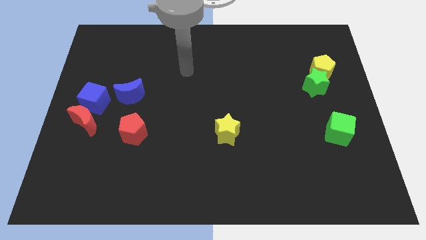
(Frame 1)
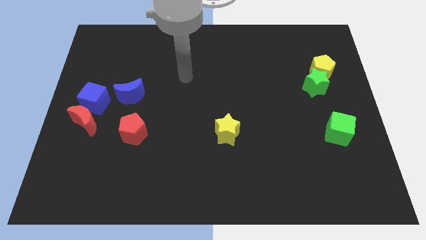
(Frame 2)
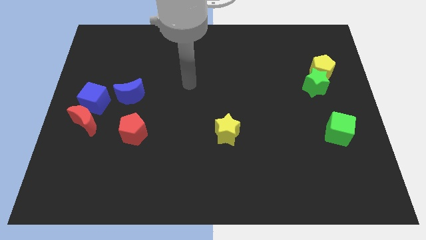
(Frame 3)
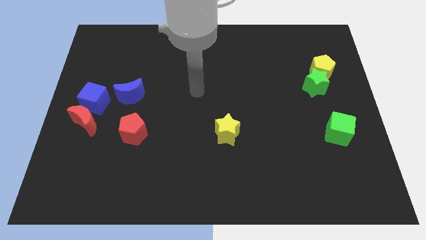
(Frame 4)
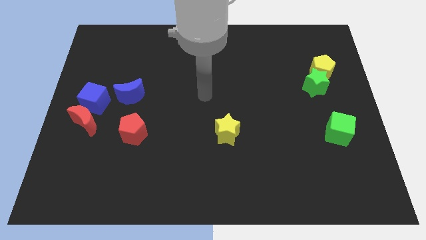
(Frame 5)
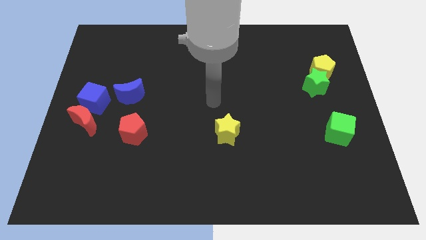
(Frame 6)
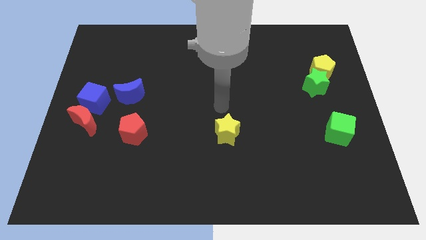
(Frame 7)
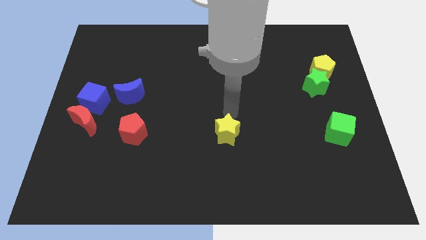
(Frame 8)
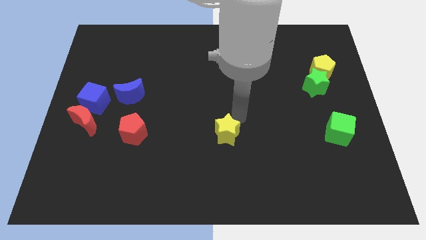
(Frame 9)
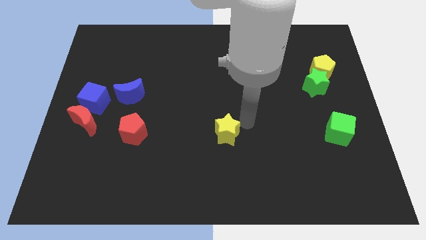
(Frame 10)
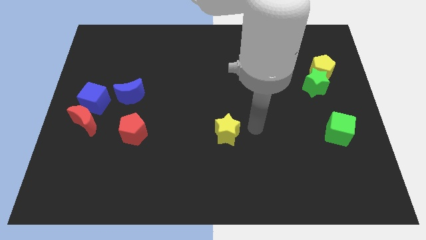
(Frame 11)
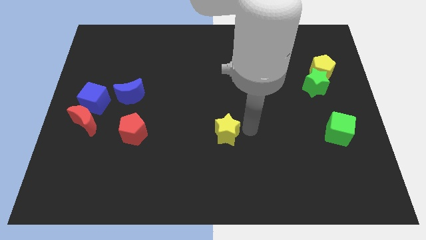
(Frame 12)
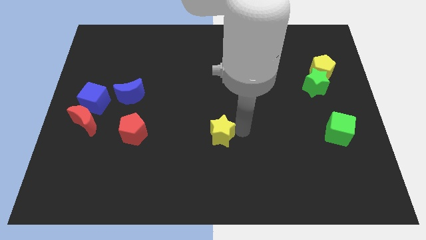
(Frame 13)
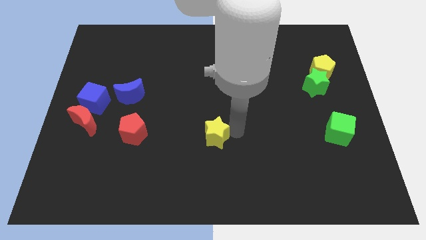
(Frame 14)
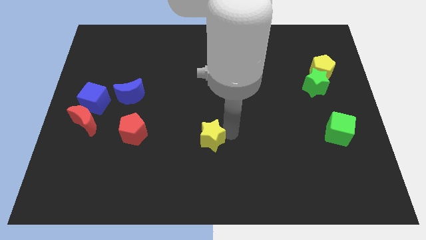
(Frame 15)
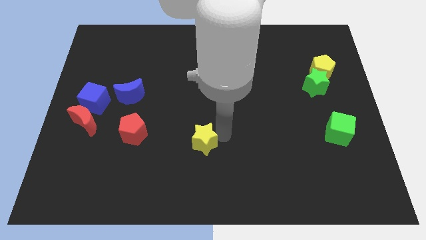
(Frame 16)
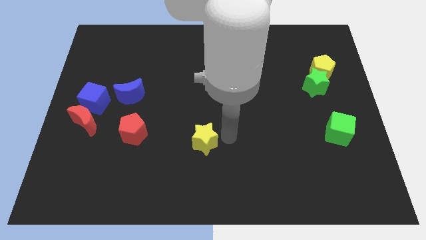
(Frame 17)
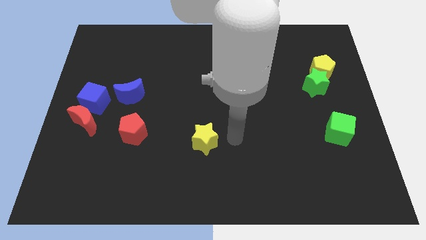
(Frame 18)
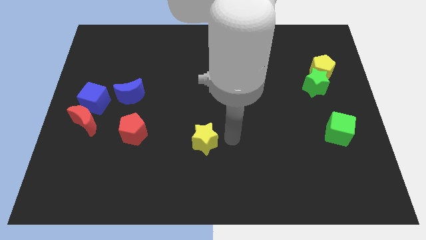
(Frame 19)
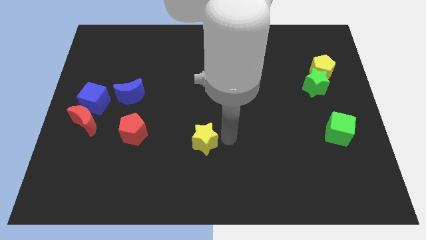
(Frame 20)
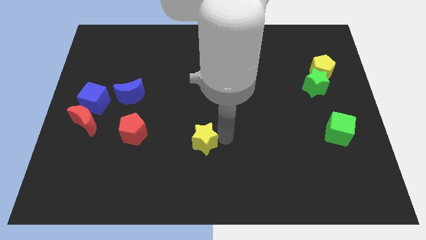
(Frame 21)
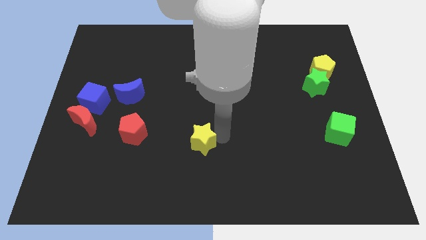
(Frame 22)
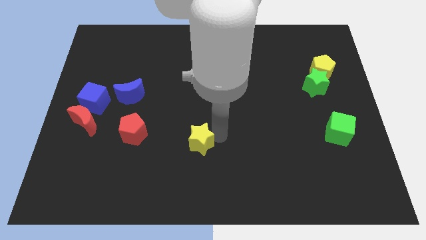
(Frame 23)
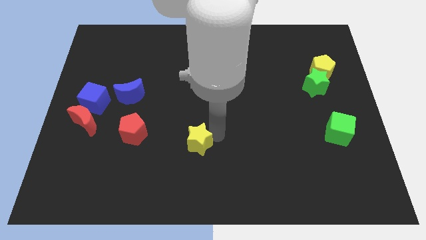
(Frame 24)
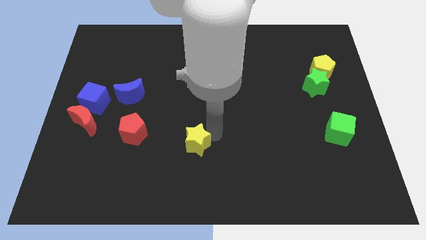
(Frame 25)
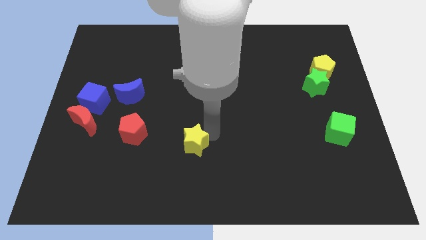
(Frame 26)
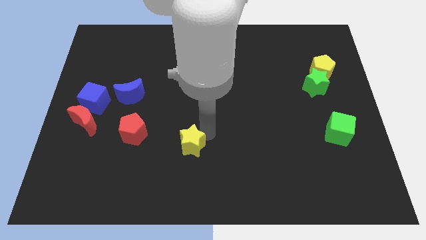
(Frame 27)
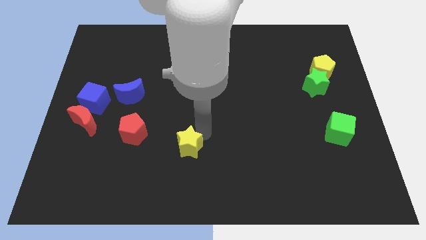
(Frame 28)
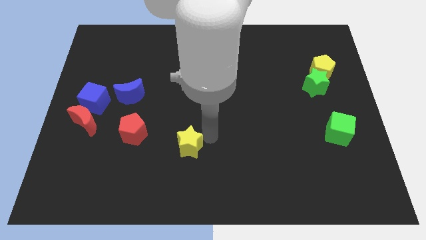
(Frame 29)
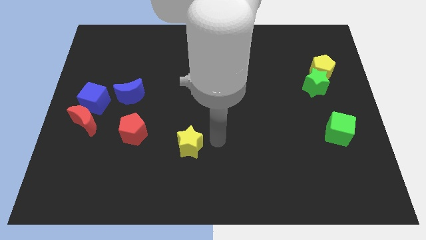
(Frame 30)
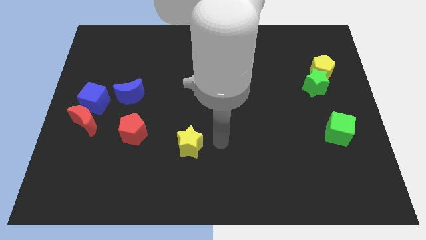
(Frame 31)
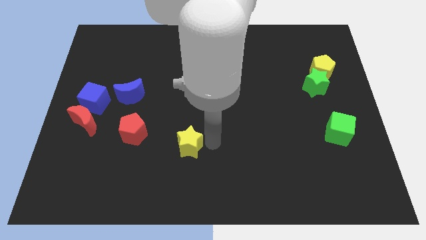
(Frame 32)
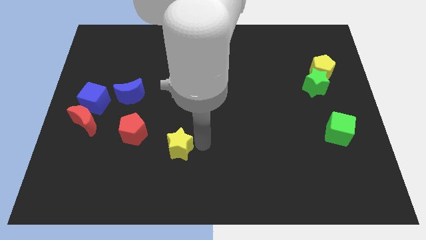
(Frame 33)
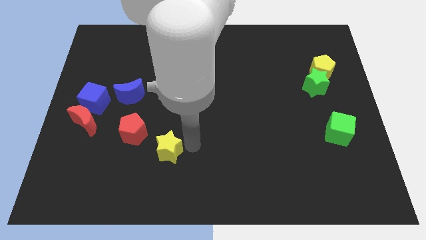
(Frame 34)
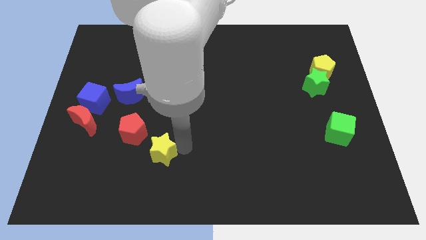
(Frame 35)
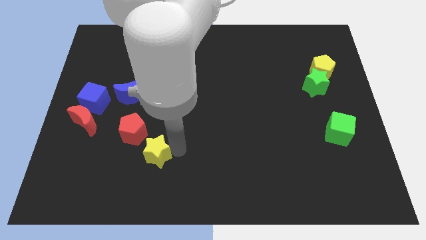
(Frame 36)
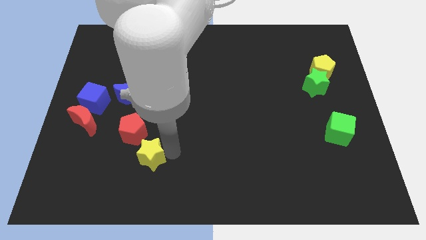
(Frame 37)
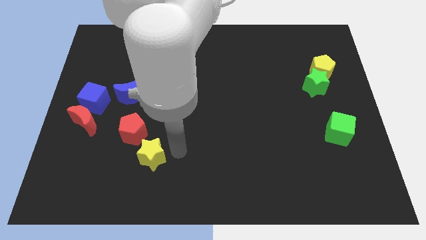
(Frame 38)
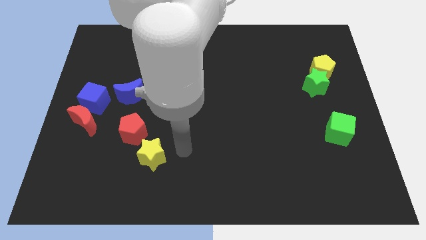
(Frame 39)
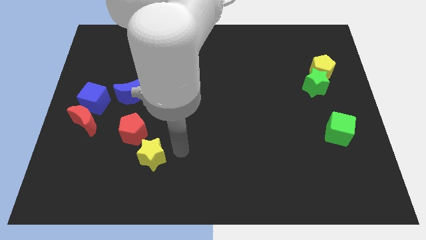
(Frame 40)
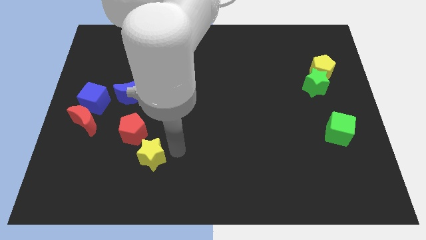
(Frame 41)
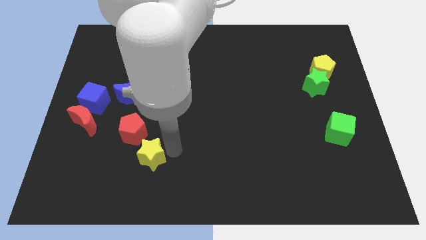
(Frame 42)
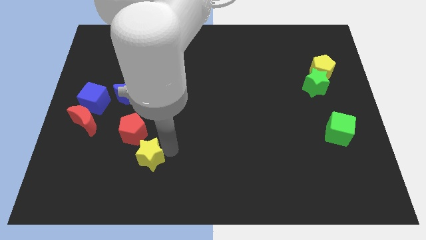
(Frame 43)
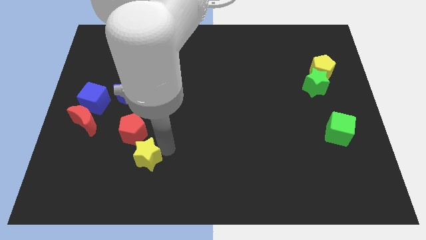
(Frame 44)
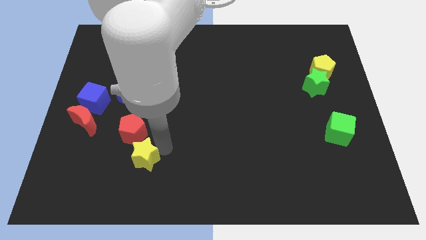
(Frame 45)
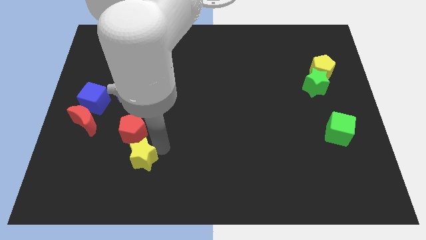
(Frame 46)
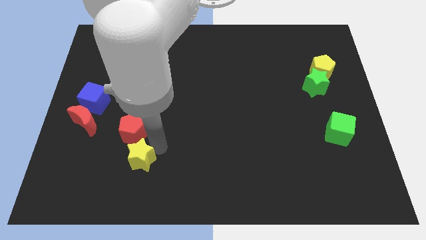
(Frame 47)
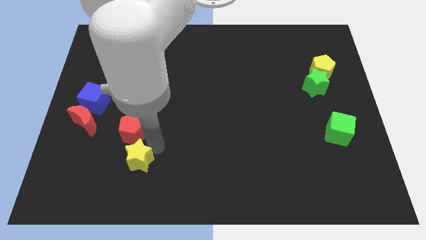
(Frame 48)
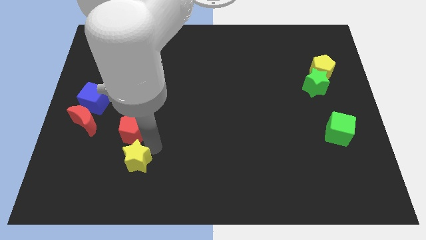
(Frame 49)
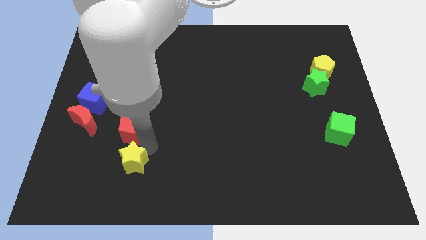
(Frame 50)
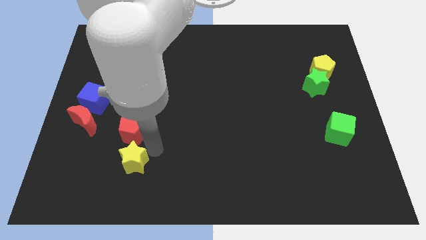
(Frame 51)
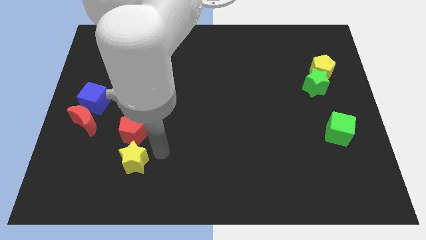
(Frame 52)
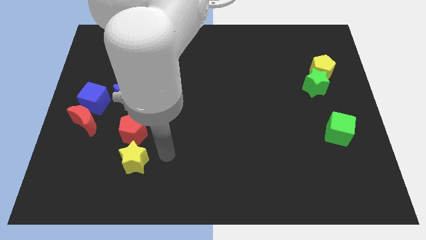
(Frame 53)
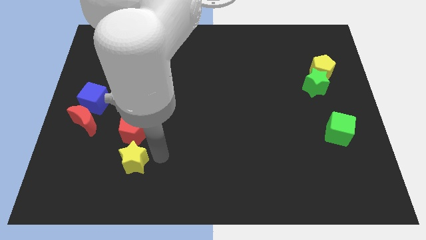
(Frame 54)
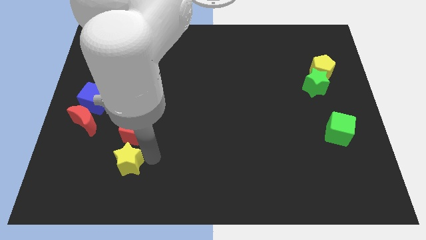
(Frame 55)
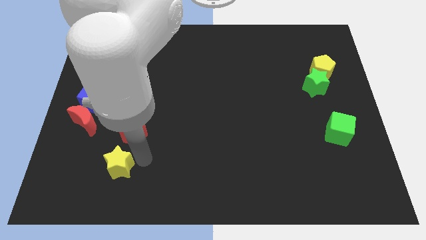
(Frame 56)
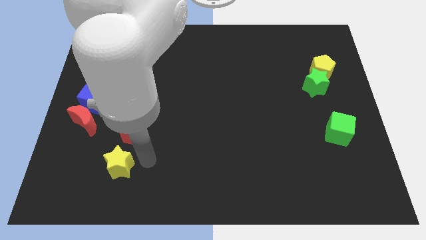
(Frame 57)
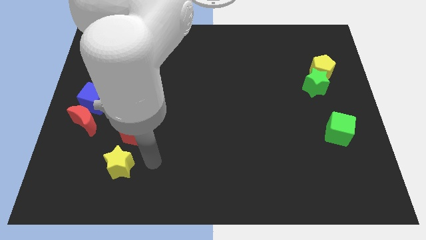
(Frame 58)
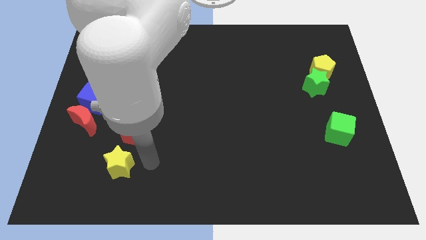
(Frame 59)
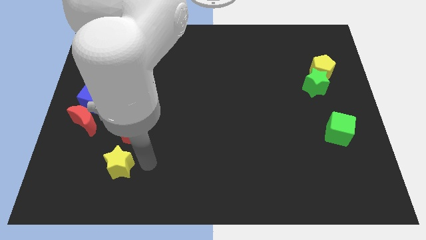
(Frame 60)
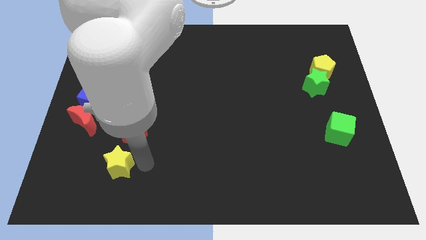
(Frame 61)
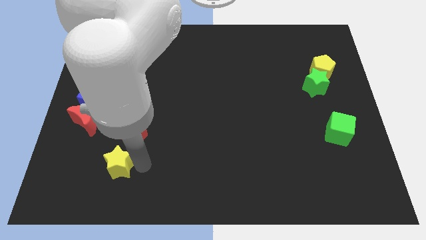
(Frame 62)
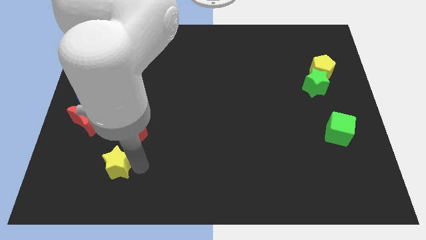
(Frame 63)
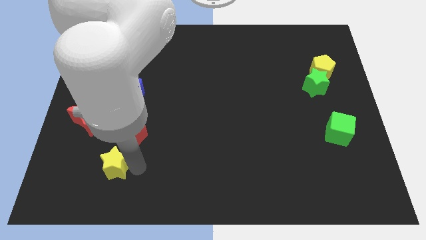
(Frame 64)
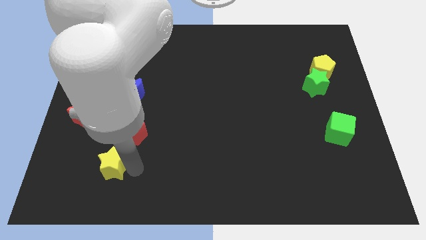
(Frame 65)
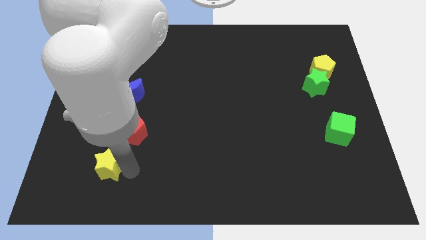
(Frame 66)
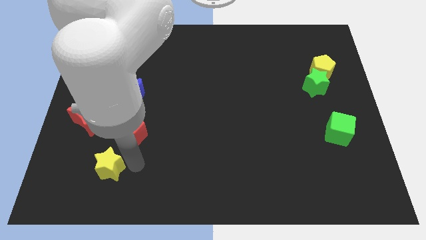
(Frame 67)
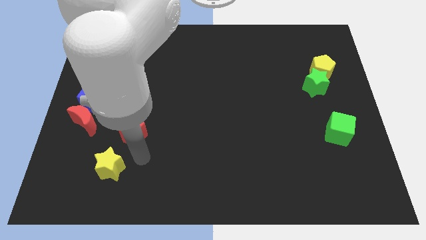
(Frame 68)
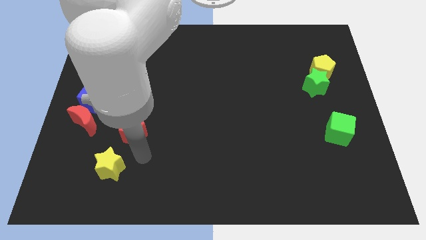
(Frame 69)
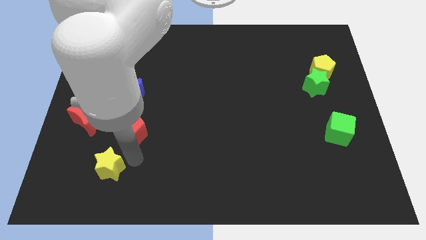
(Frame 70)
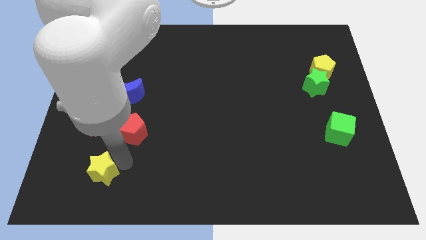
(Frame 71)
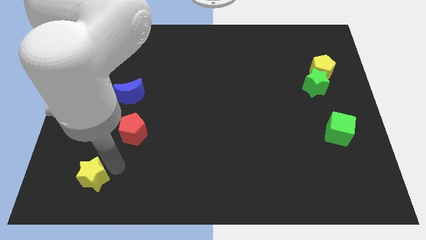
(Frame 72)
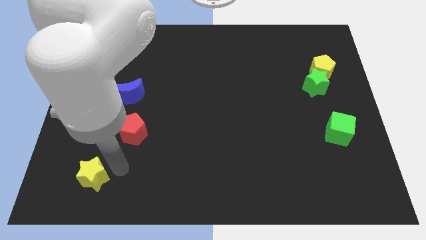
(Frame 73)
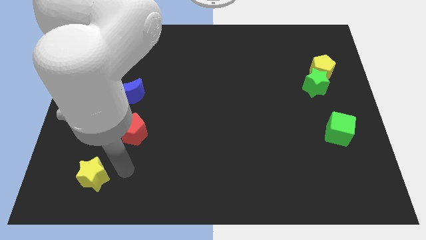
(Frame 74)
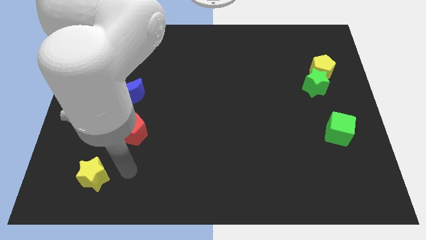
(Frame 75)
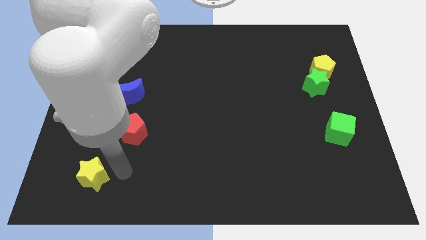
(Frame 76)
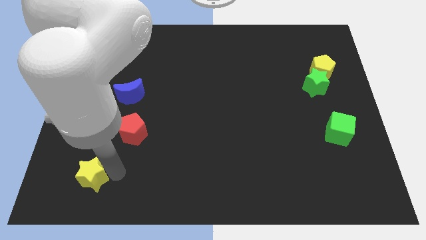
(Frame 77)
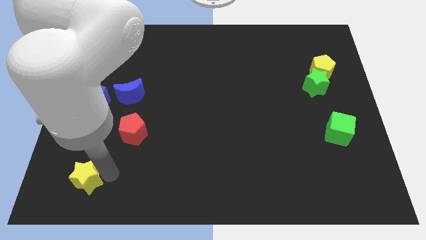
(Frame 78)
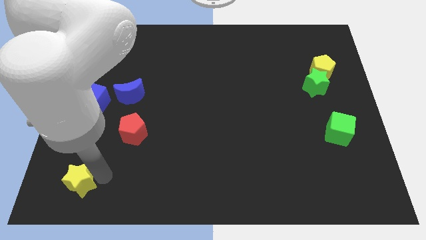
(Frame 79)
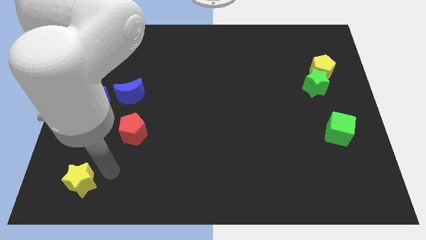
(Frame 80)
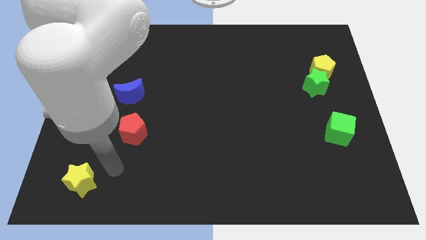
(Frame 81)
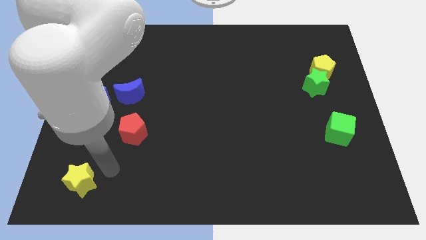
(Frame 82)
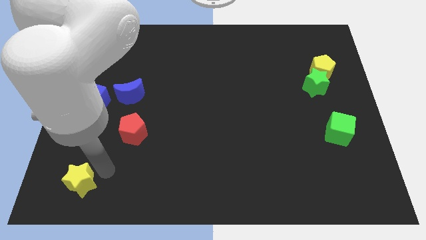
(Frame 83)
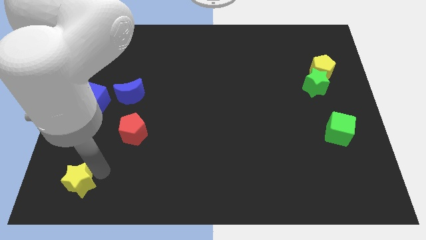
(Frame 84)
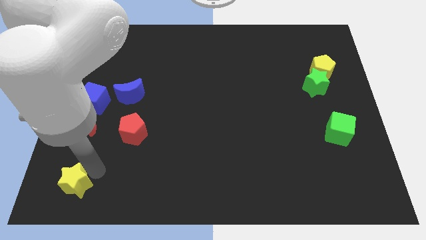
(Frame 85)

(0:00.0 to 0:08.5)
slide the yellow star to the bottom left
